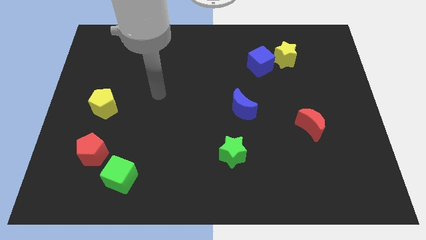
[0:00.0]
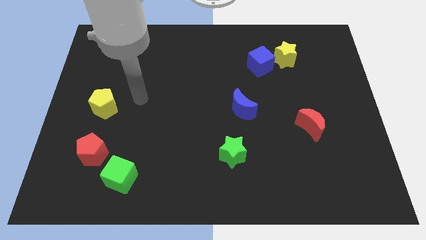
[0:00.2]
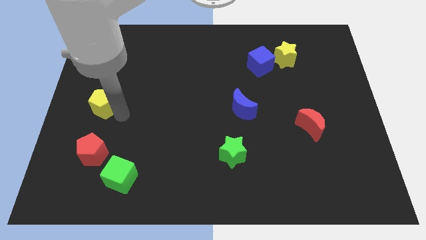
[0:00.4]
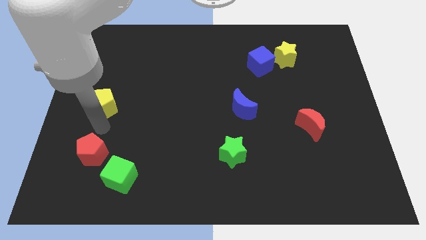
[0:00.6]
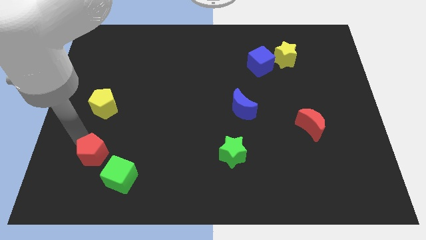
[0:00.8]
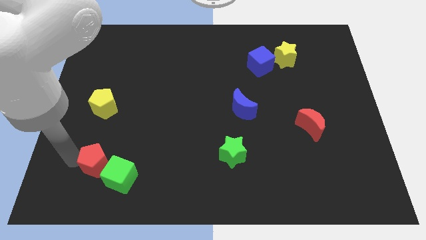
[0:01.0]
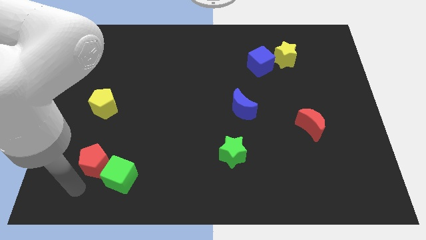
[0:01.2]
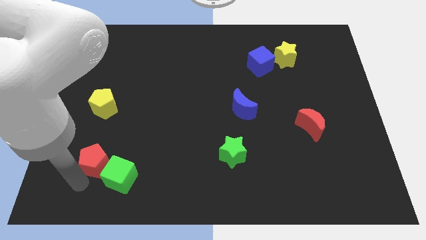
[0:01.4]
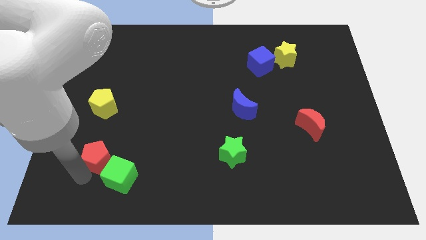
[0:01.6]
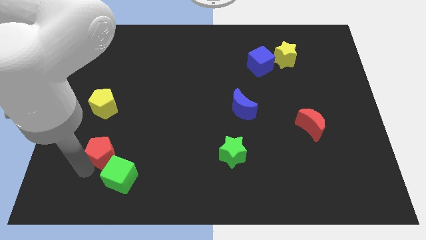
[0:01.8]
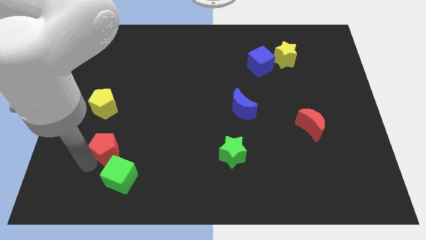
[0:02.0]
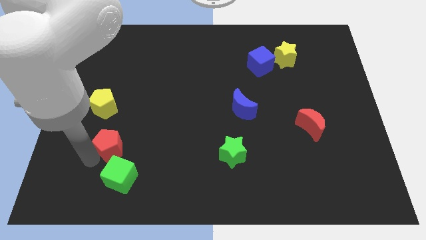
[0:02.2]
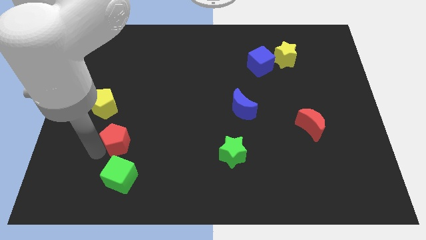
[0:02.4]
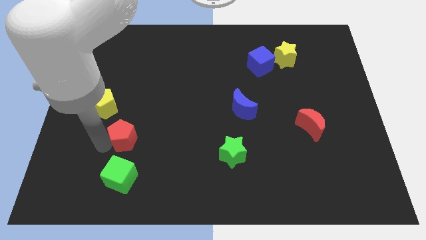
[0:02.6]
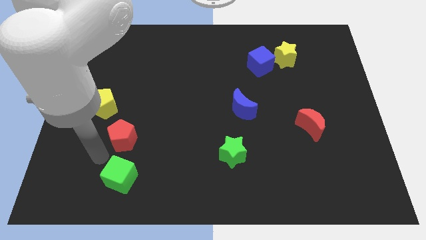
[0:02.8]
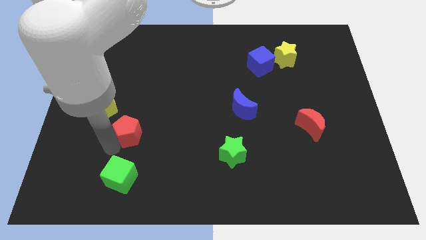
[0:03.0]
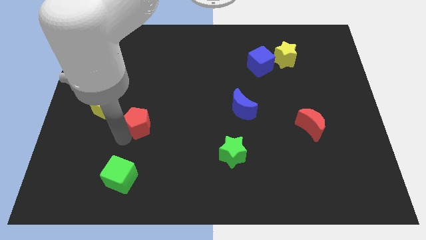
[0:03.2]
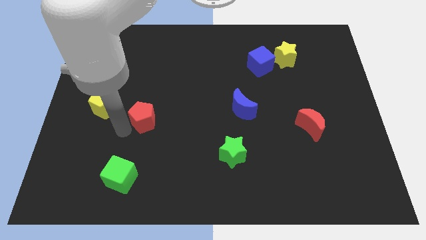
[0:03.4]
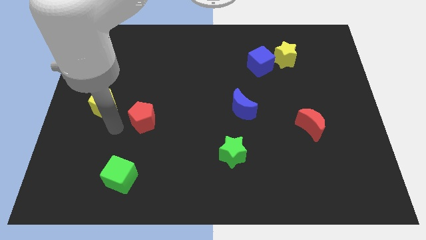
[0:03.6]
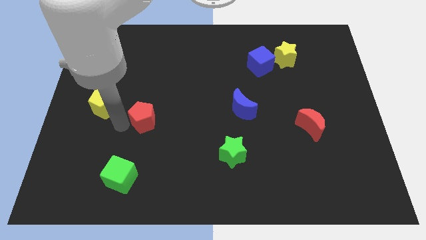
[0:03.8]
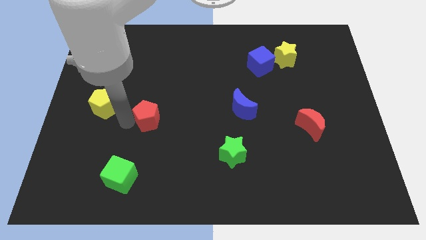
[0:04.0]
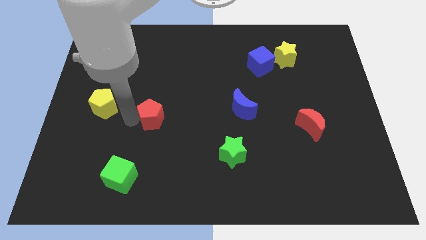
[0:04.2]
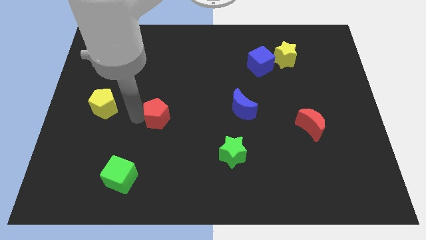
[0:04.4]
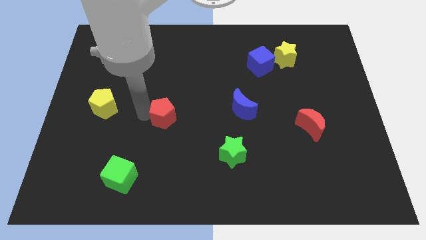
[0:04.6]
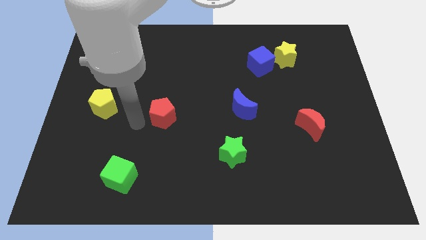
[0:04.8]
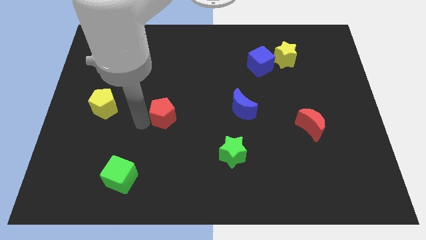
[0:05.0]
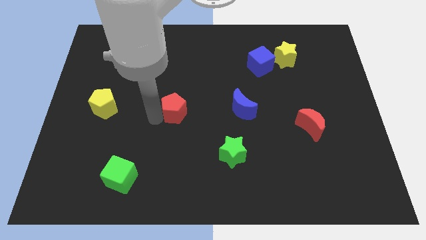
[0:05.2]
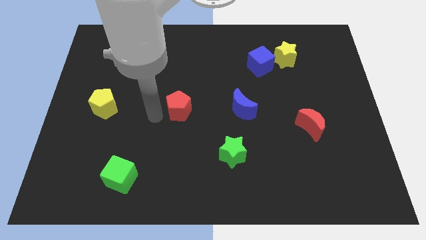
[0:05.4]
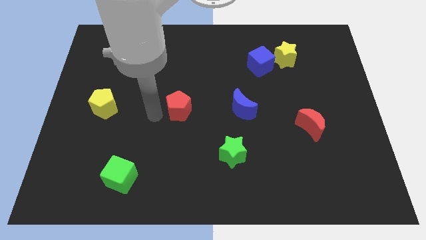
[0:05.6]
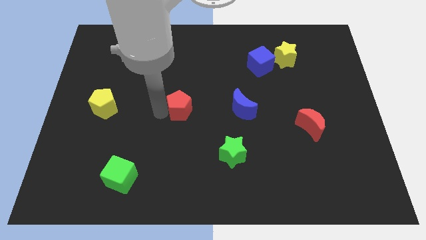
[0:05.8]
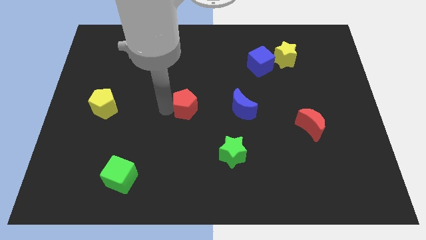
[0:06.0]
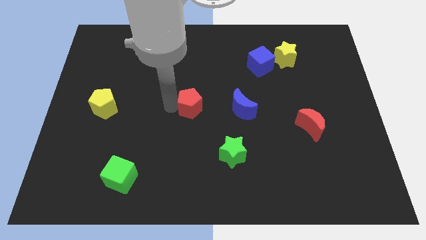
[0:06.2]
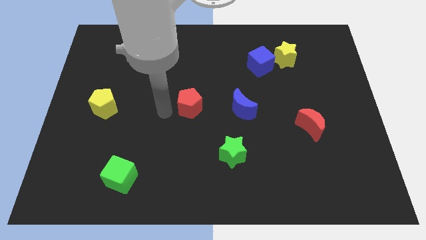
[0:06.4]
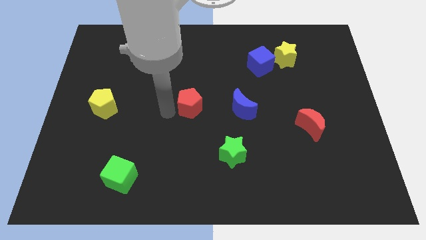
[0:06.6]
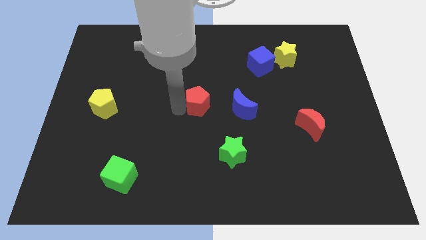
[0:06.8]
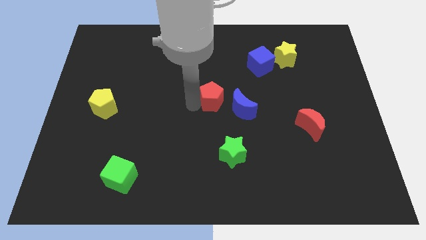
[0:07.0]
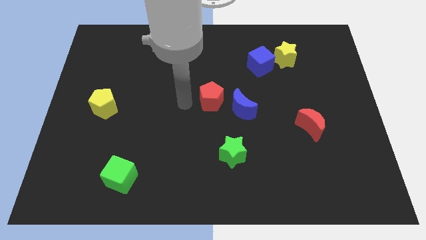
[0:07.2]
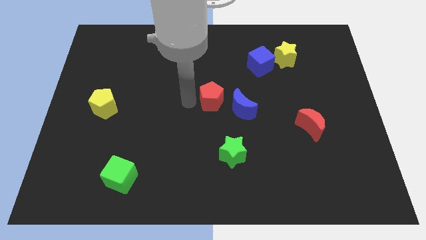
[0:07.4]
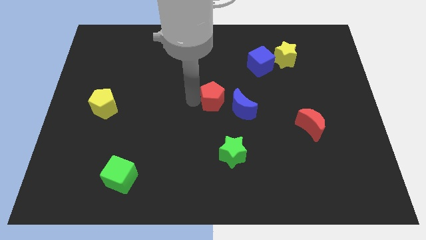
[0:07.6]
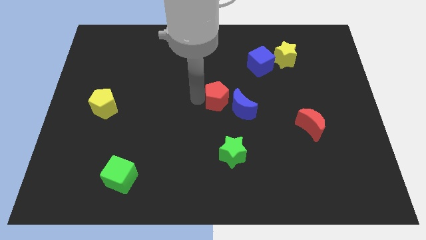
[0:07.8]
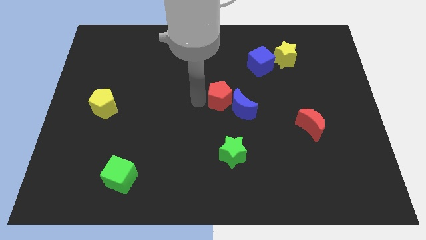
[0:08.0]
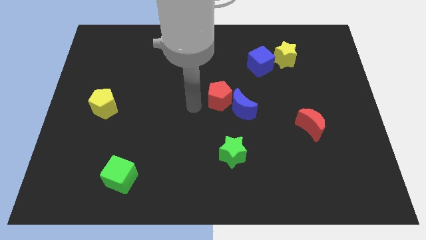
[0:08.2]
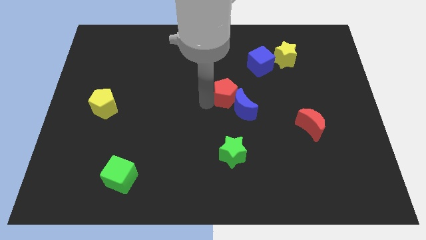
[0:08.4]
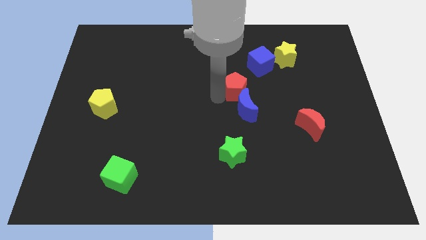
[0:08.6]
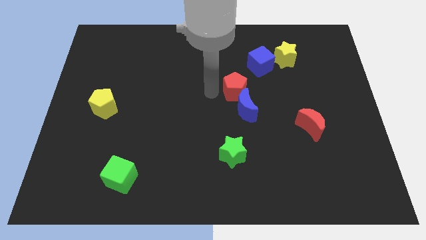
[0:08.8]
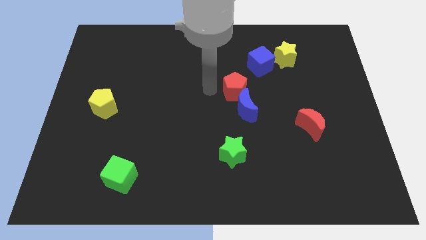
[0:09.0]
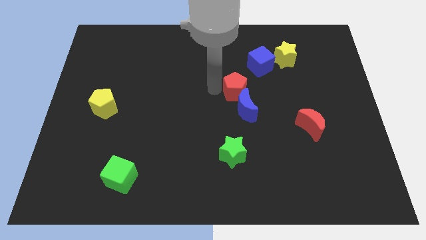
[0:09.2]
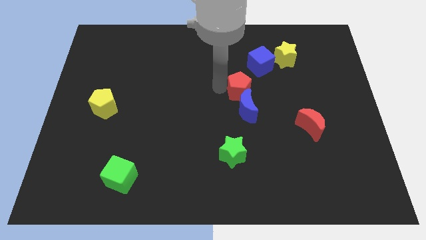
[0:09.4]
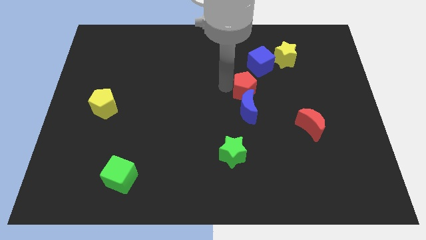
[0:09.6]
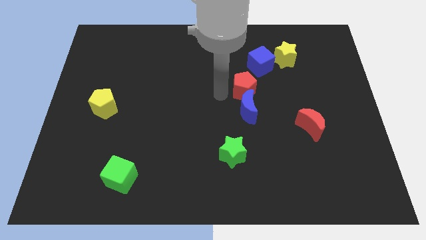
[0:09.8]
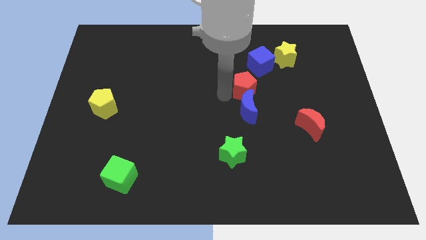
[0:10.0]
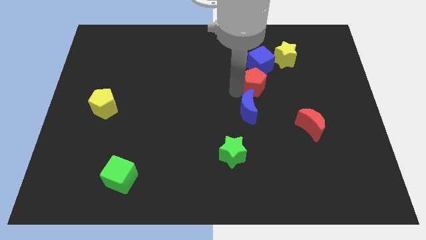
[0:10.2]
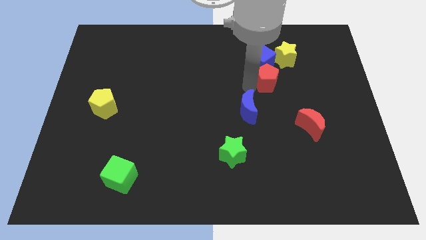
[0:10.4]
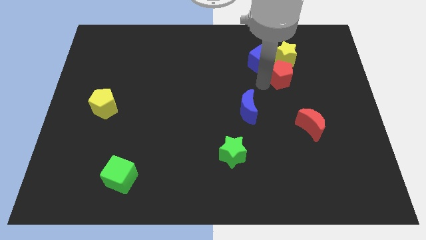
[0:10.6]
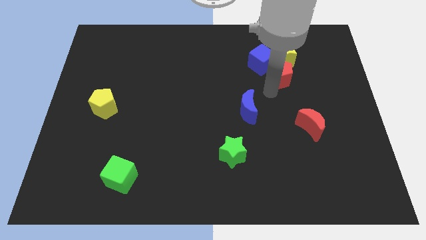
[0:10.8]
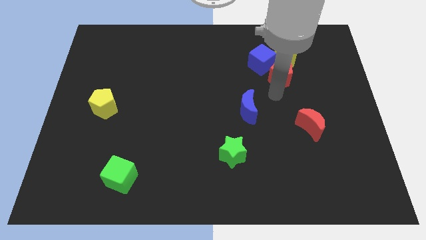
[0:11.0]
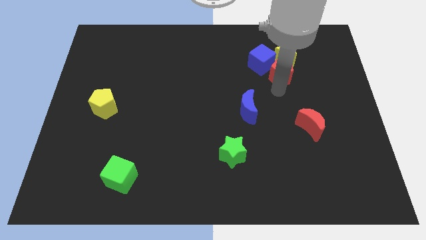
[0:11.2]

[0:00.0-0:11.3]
put the red pentagon next to the yellow star
